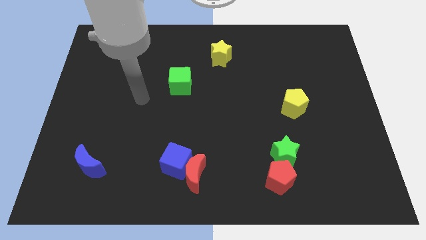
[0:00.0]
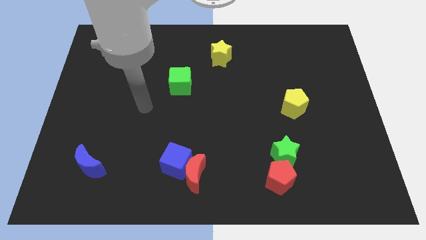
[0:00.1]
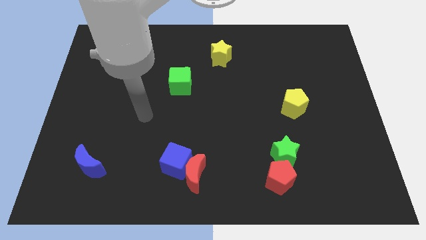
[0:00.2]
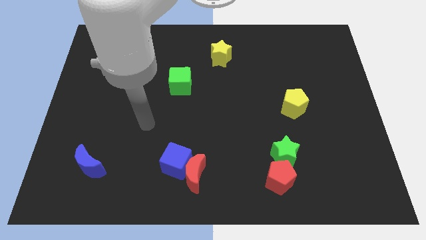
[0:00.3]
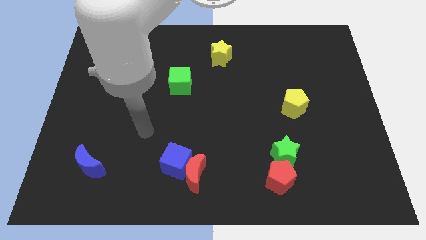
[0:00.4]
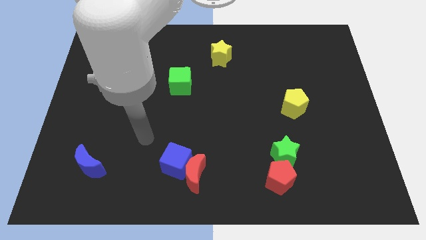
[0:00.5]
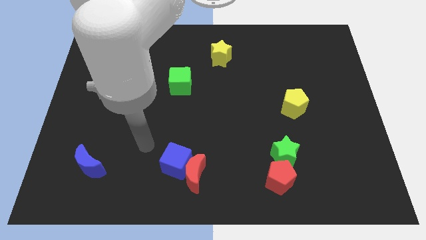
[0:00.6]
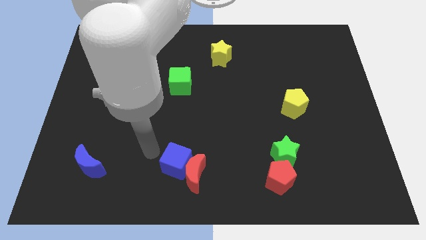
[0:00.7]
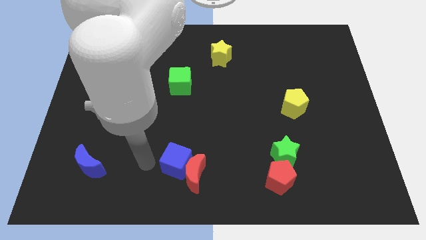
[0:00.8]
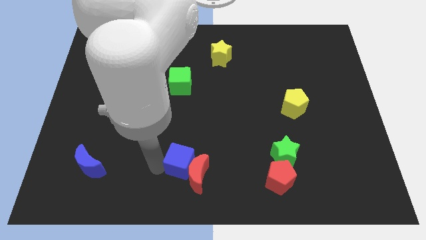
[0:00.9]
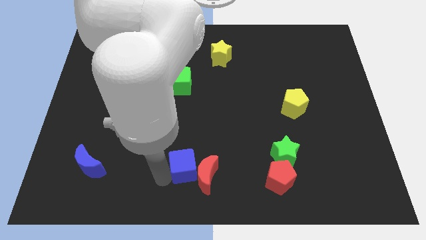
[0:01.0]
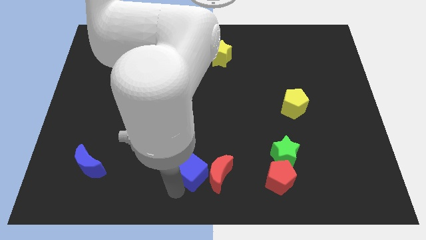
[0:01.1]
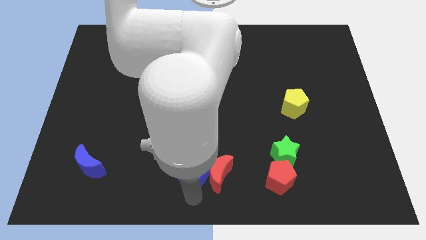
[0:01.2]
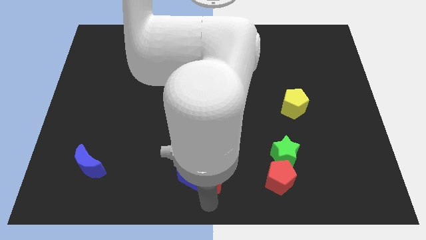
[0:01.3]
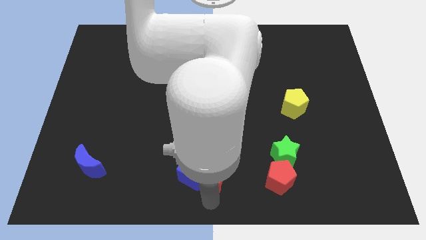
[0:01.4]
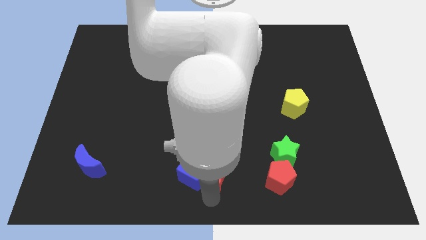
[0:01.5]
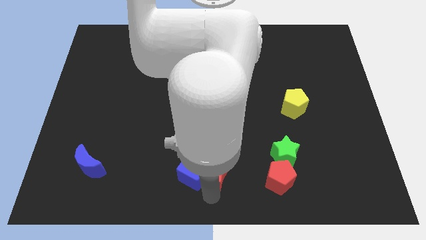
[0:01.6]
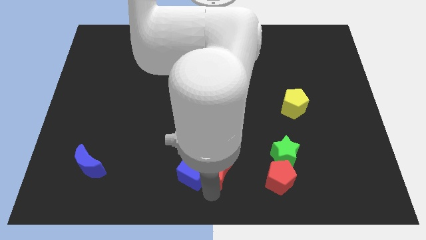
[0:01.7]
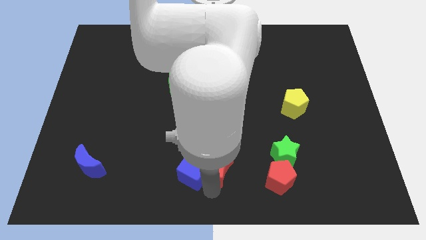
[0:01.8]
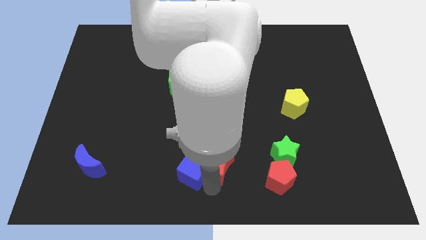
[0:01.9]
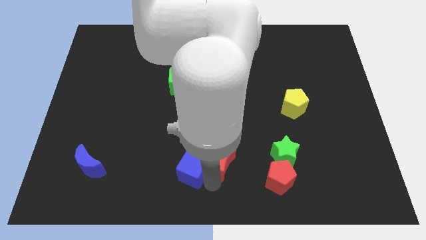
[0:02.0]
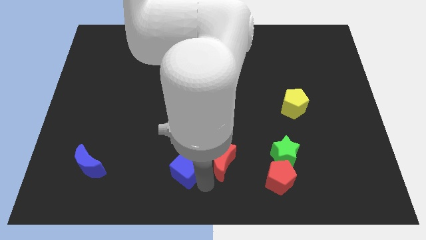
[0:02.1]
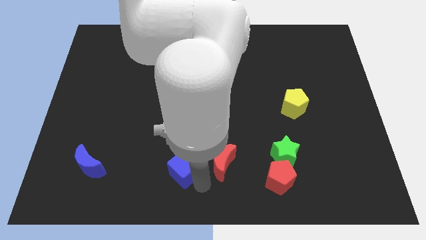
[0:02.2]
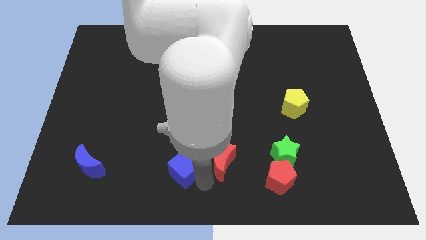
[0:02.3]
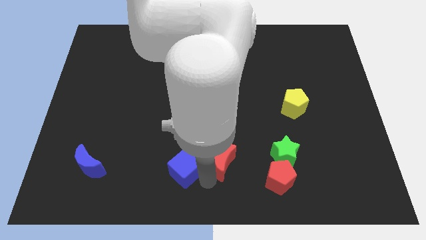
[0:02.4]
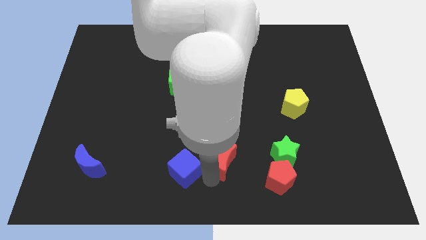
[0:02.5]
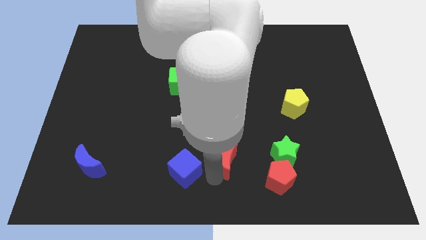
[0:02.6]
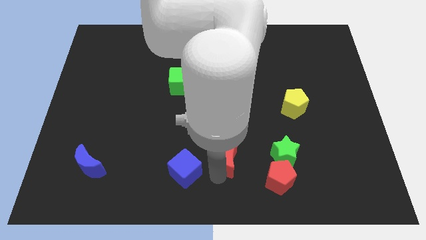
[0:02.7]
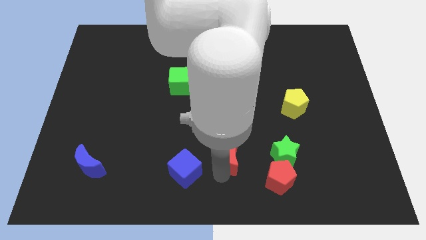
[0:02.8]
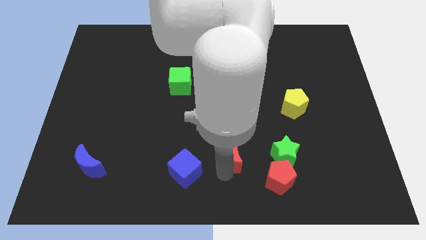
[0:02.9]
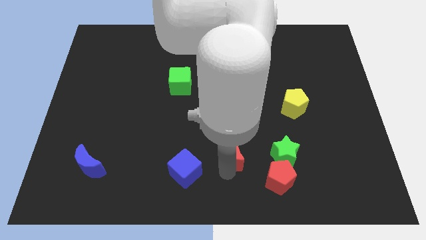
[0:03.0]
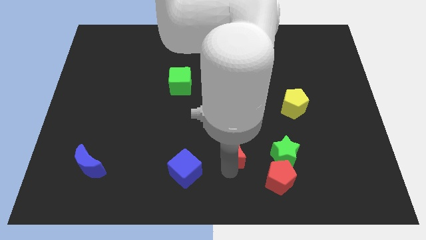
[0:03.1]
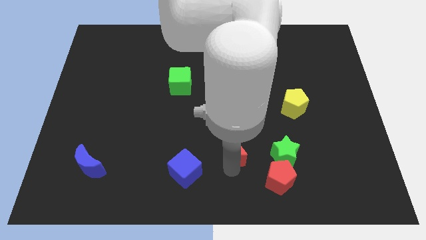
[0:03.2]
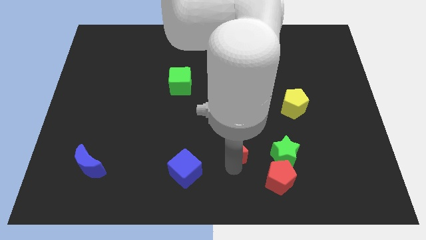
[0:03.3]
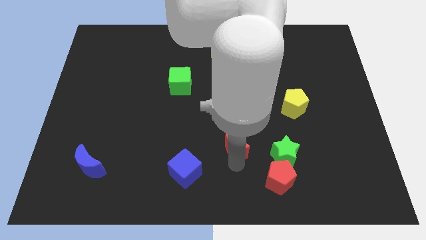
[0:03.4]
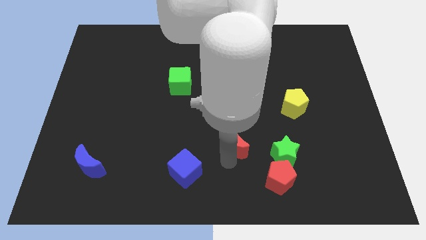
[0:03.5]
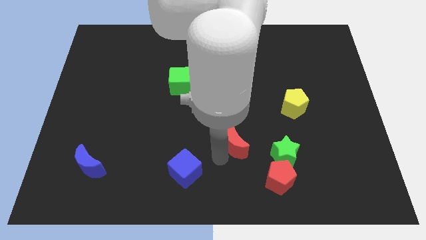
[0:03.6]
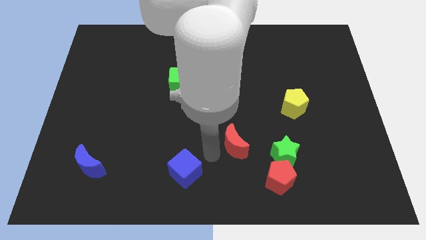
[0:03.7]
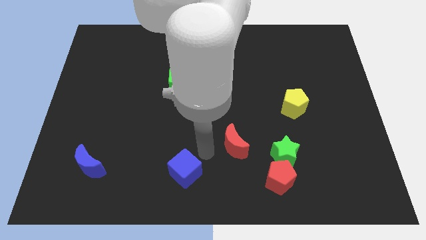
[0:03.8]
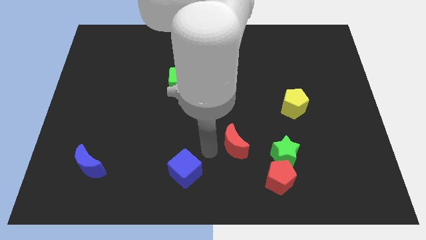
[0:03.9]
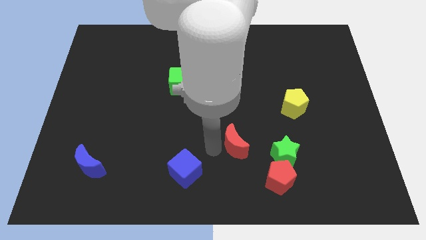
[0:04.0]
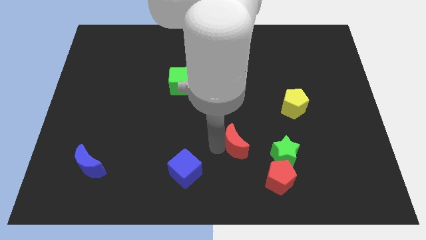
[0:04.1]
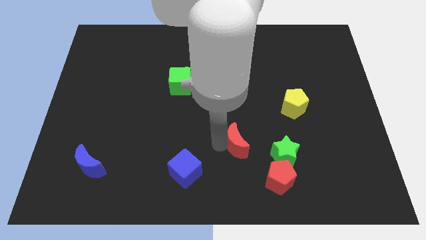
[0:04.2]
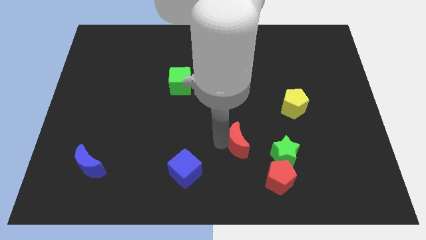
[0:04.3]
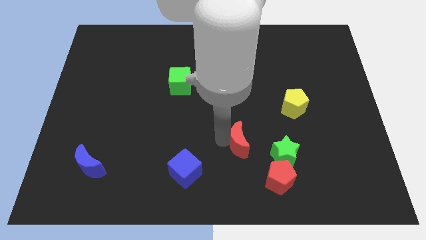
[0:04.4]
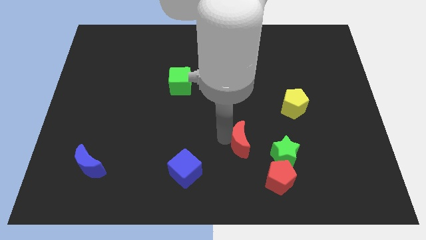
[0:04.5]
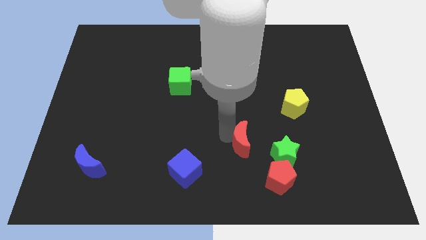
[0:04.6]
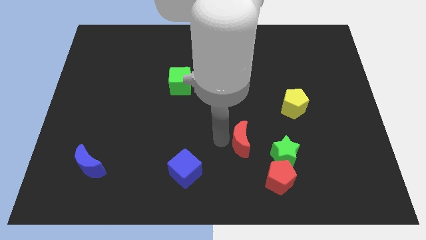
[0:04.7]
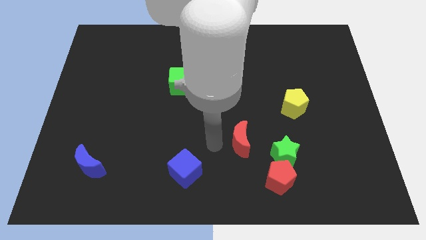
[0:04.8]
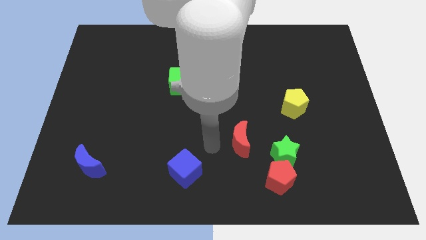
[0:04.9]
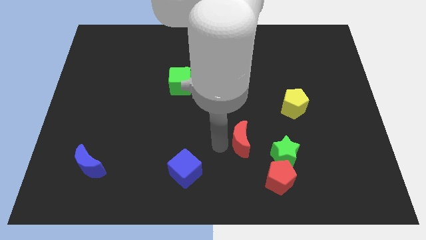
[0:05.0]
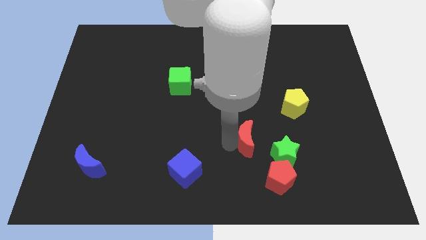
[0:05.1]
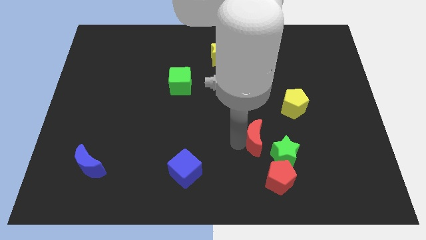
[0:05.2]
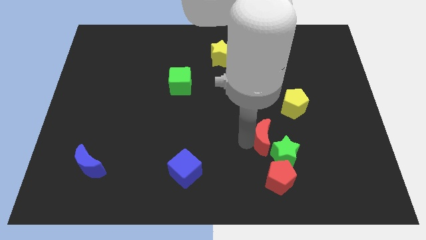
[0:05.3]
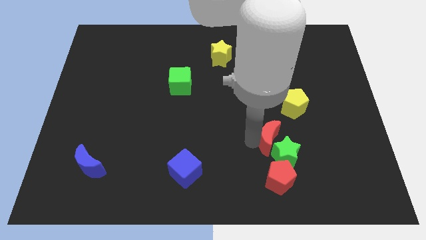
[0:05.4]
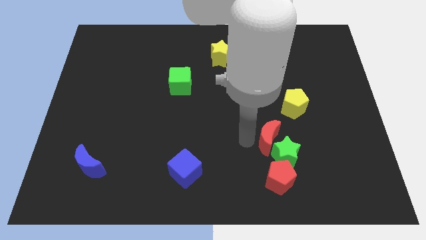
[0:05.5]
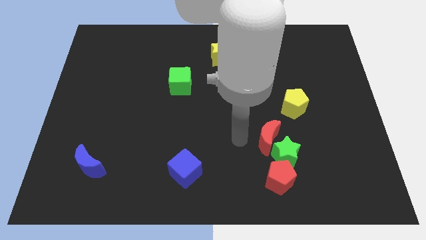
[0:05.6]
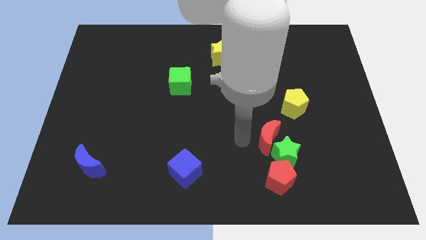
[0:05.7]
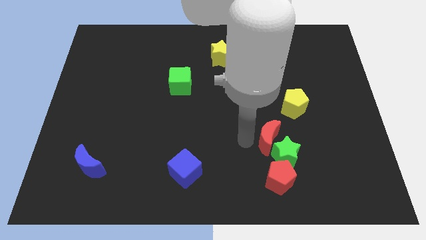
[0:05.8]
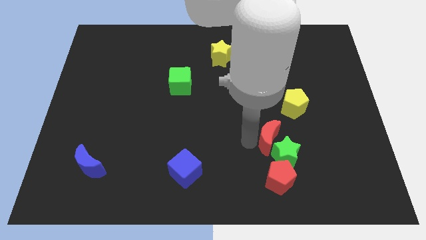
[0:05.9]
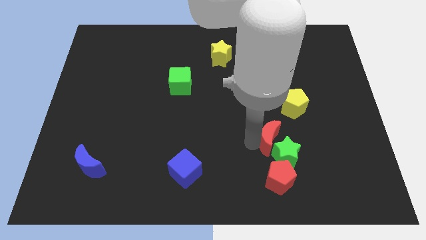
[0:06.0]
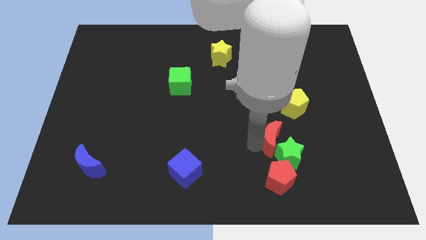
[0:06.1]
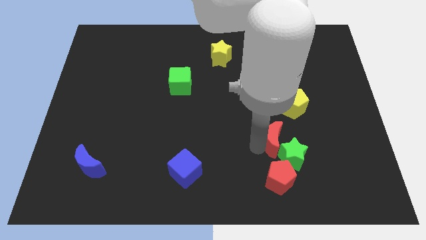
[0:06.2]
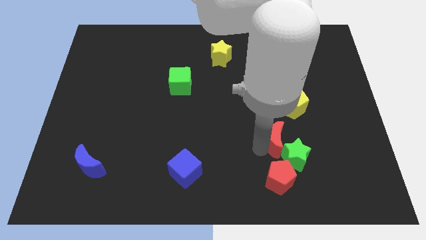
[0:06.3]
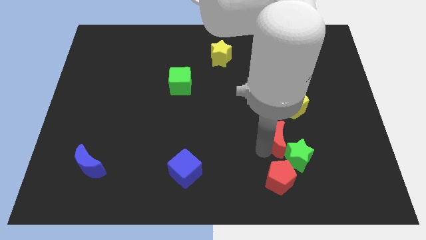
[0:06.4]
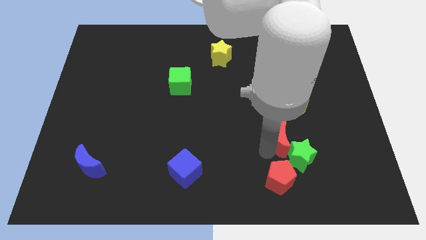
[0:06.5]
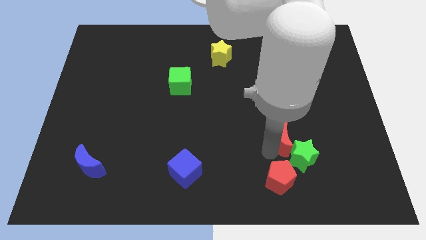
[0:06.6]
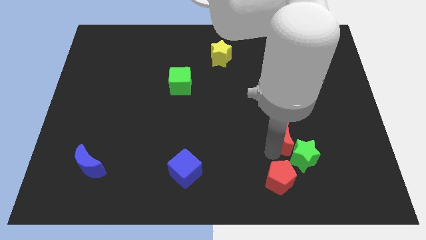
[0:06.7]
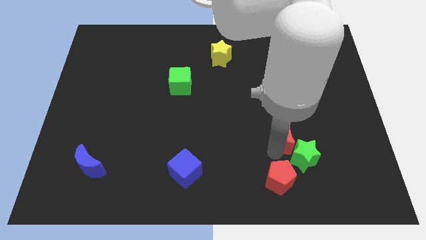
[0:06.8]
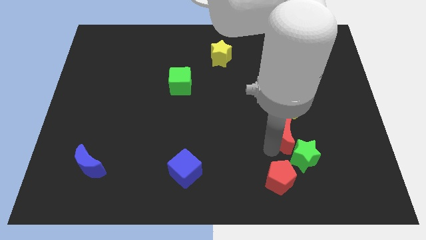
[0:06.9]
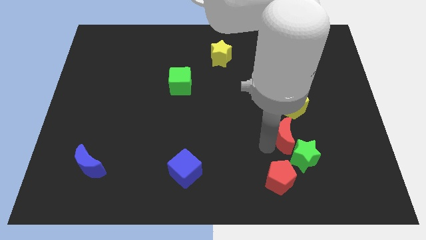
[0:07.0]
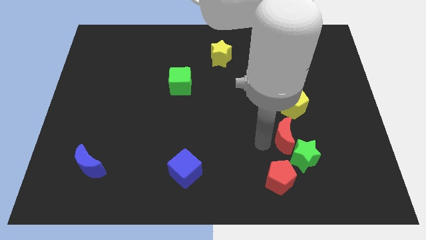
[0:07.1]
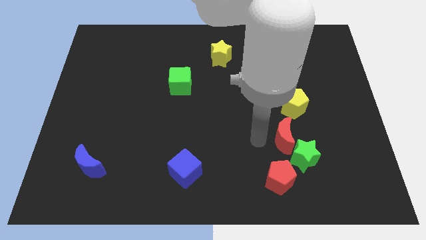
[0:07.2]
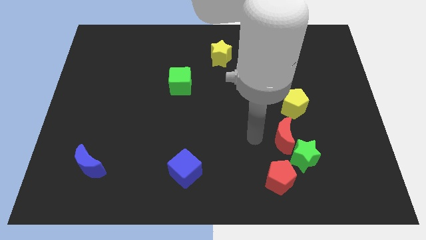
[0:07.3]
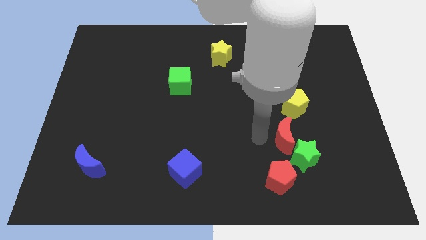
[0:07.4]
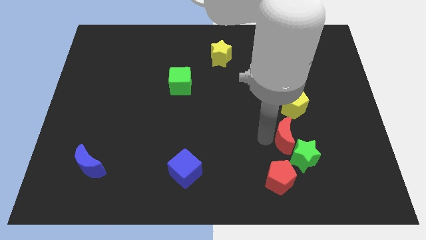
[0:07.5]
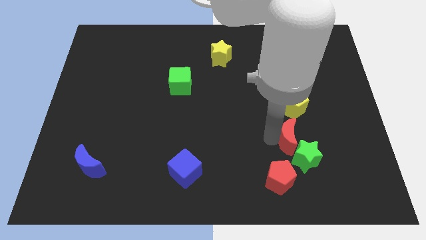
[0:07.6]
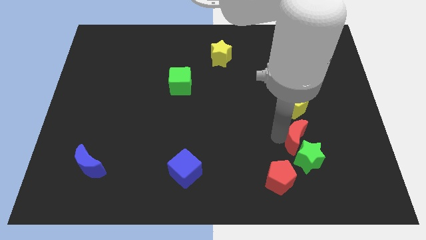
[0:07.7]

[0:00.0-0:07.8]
put the red moon to the top right side of the red pentagon
